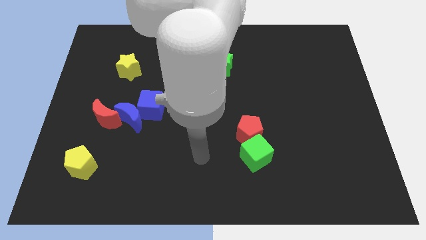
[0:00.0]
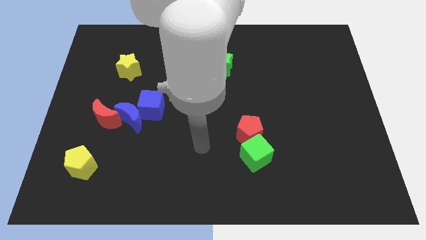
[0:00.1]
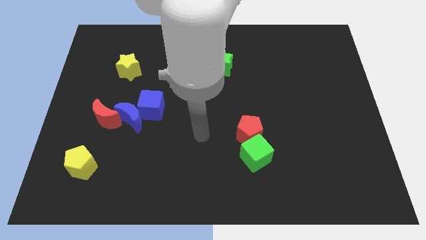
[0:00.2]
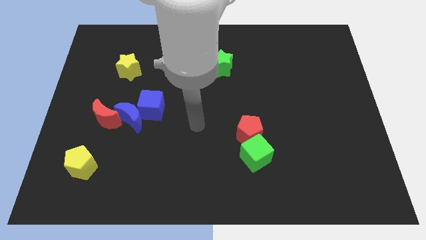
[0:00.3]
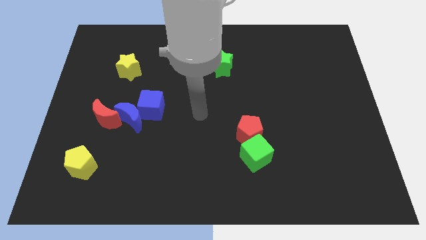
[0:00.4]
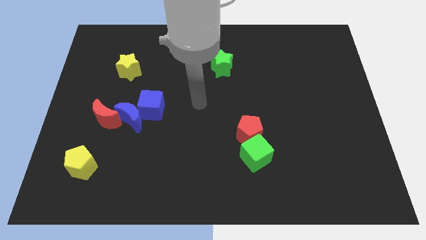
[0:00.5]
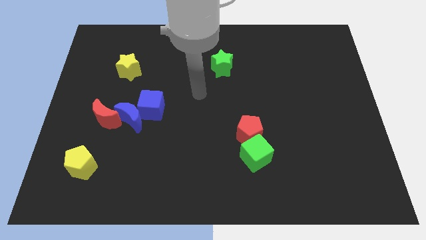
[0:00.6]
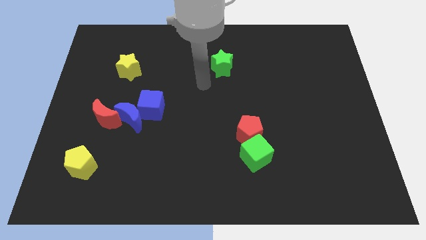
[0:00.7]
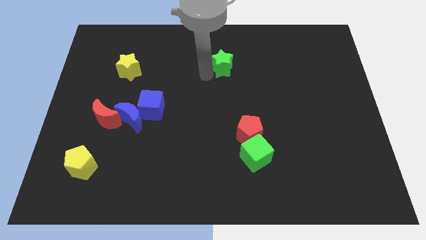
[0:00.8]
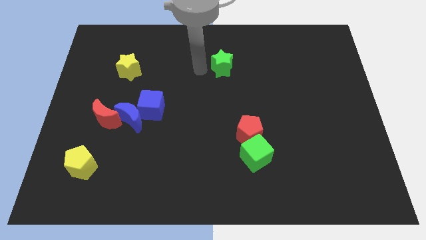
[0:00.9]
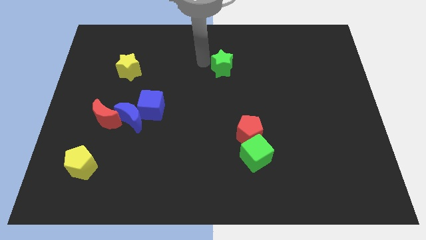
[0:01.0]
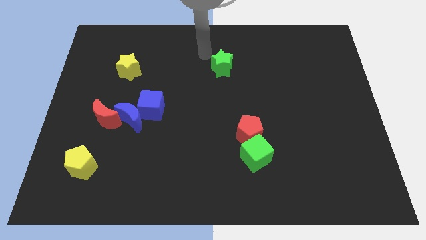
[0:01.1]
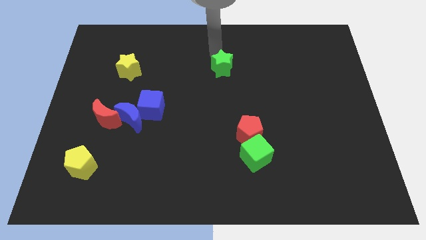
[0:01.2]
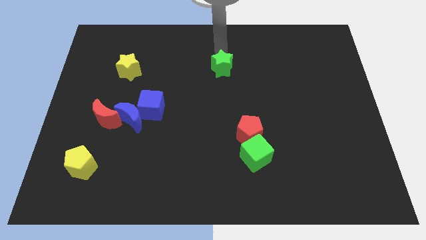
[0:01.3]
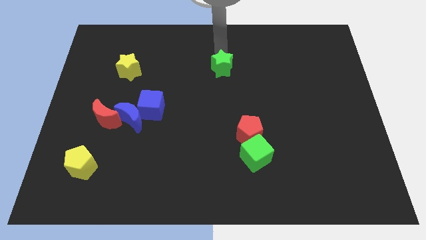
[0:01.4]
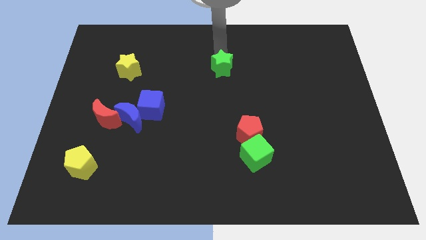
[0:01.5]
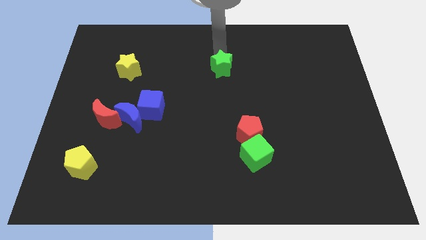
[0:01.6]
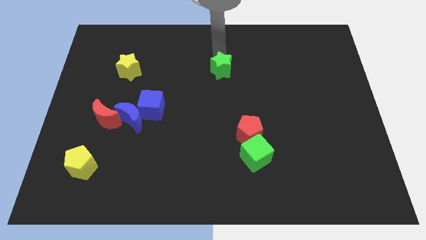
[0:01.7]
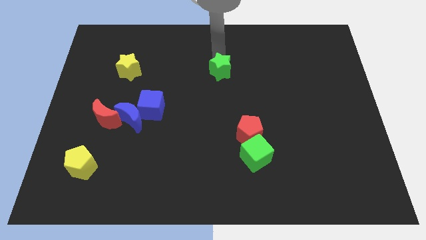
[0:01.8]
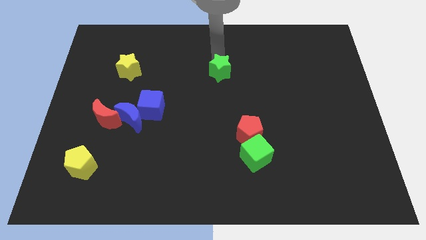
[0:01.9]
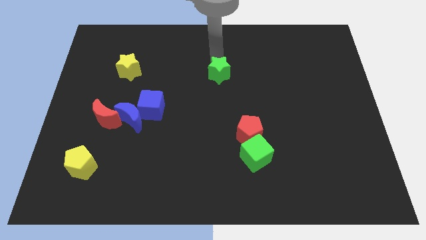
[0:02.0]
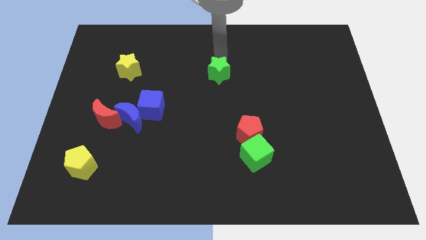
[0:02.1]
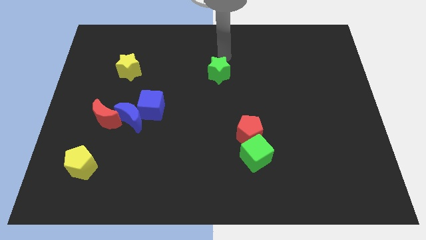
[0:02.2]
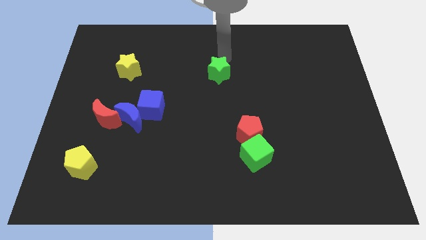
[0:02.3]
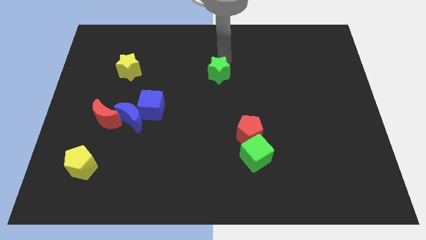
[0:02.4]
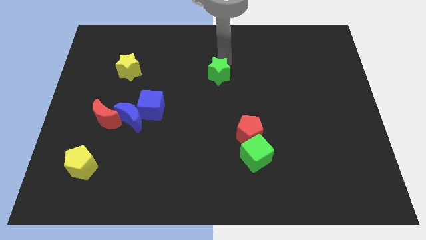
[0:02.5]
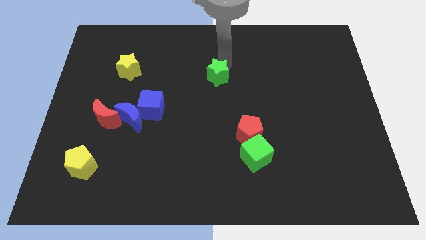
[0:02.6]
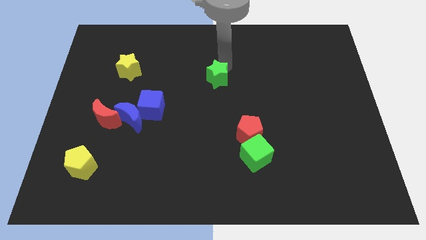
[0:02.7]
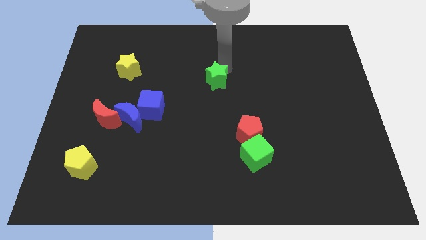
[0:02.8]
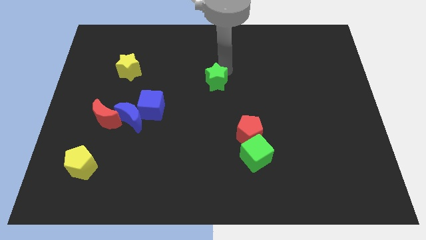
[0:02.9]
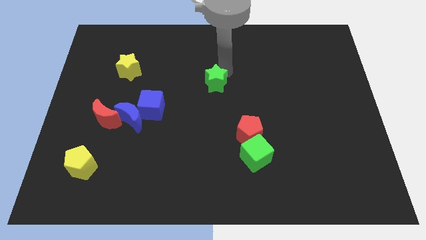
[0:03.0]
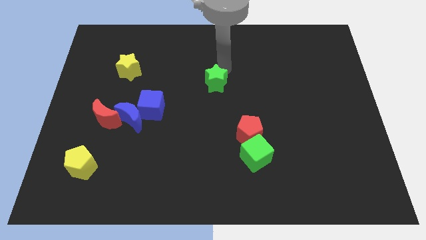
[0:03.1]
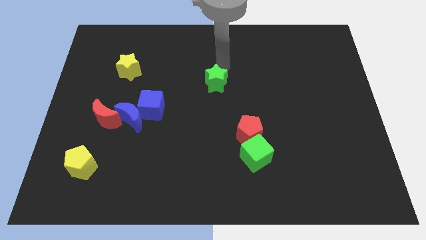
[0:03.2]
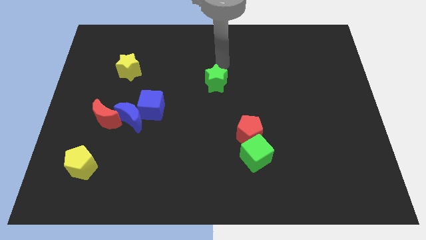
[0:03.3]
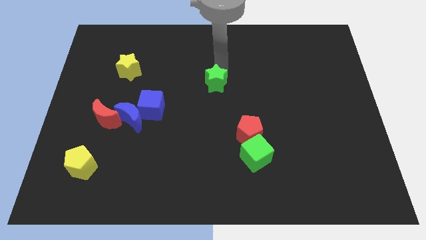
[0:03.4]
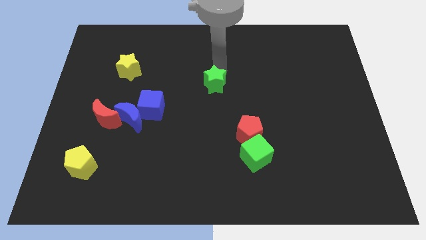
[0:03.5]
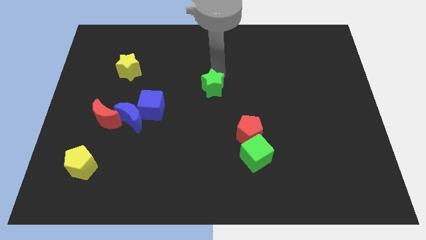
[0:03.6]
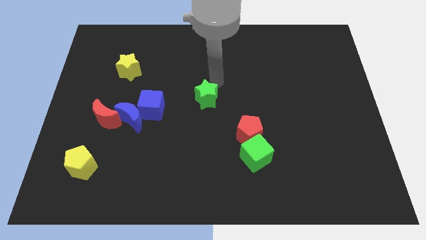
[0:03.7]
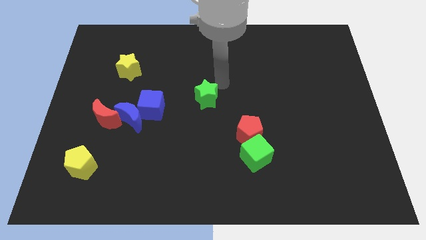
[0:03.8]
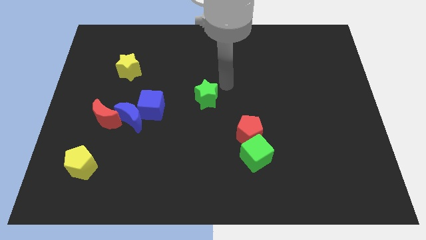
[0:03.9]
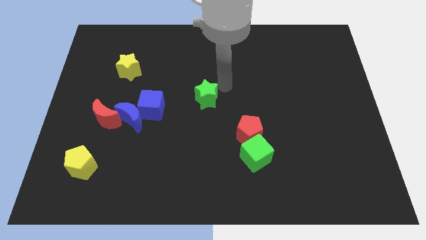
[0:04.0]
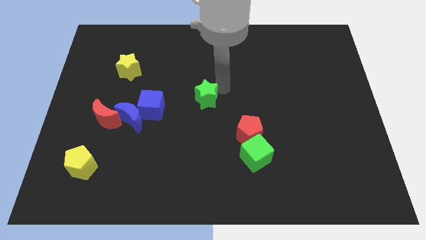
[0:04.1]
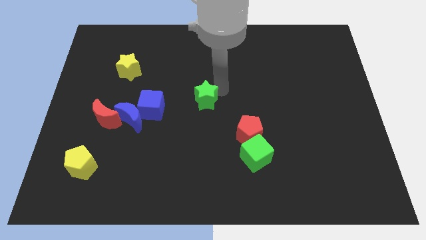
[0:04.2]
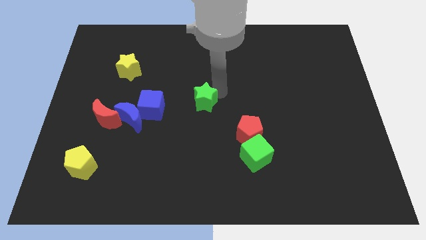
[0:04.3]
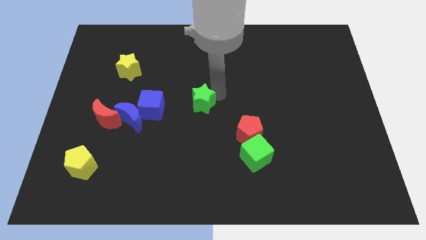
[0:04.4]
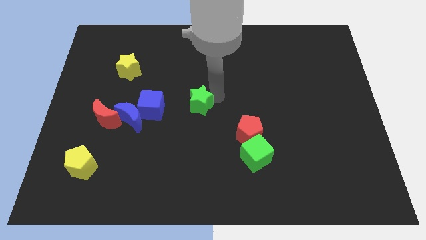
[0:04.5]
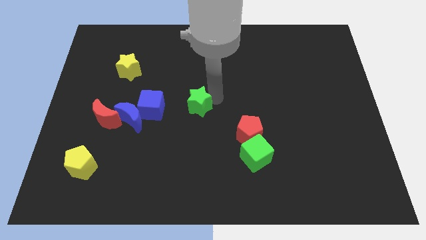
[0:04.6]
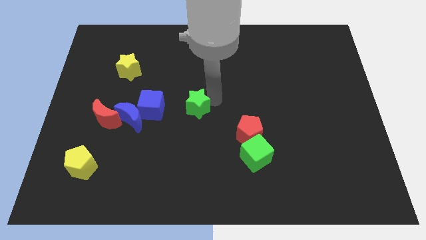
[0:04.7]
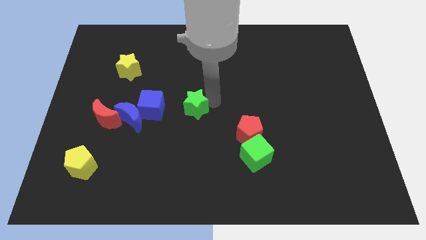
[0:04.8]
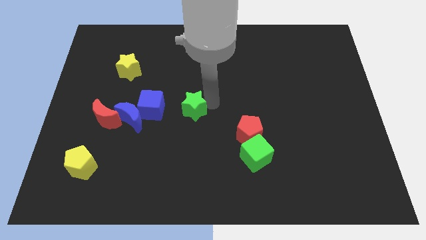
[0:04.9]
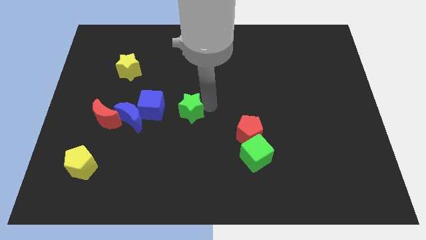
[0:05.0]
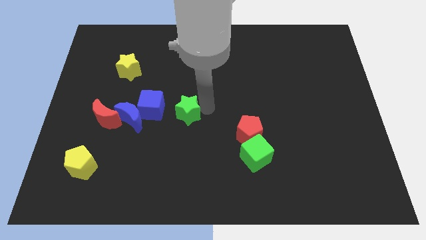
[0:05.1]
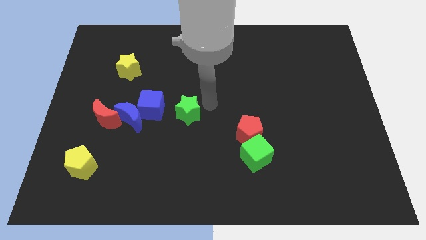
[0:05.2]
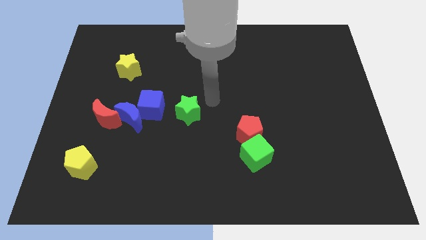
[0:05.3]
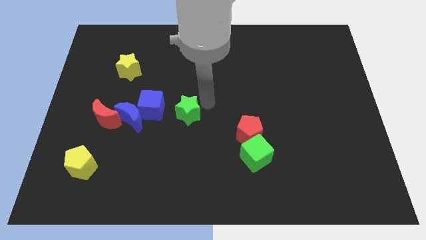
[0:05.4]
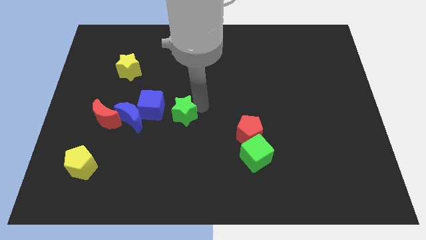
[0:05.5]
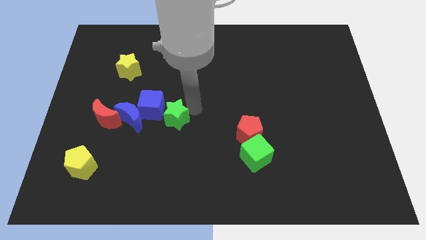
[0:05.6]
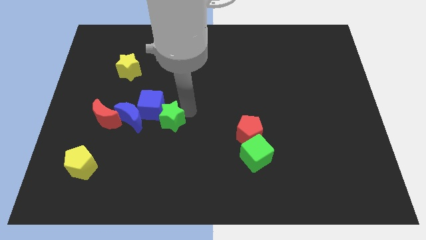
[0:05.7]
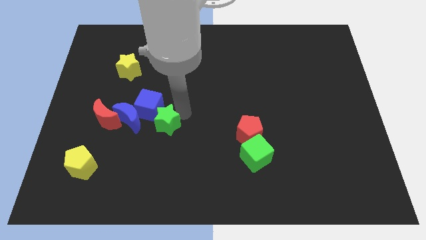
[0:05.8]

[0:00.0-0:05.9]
push the green star down and then to the left

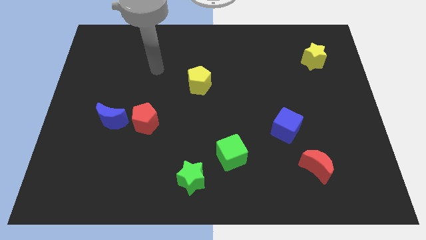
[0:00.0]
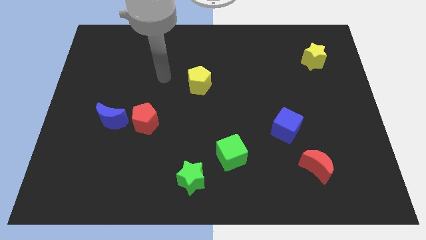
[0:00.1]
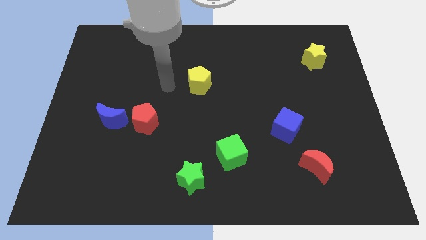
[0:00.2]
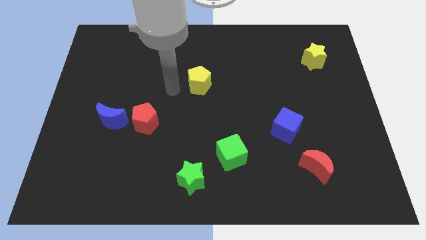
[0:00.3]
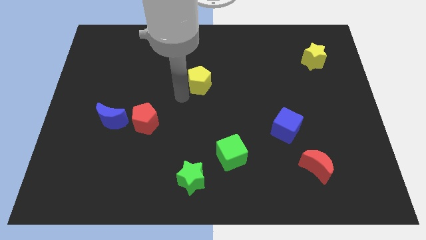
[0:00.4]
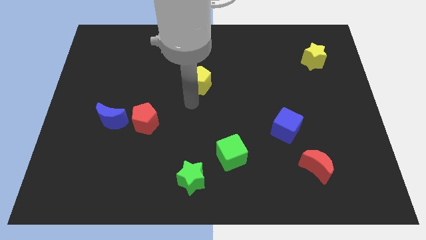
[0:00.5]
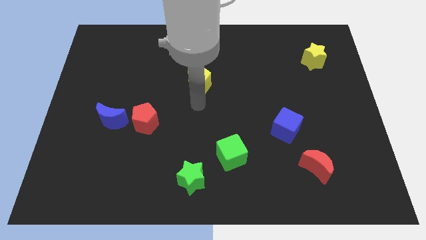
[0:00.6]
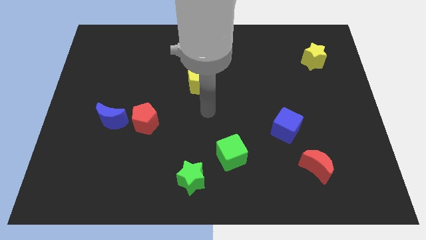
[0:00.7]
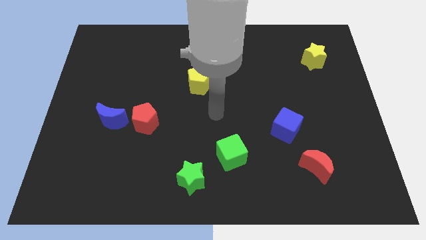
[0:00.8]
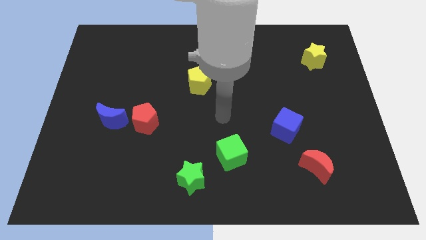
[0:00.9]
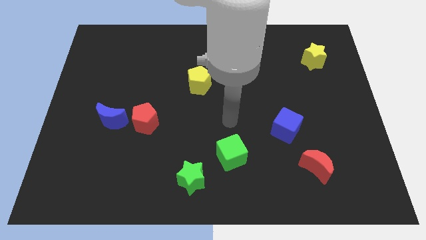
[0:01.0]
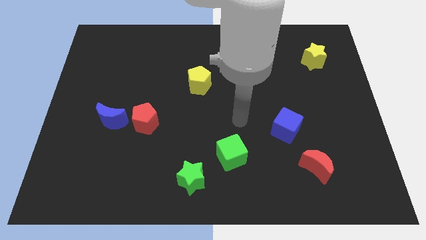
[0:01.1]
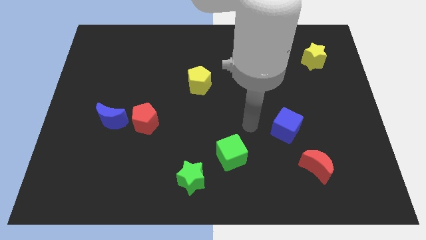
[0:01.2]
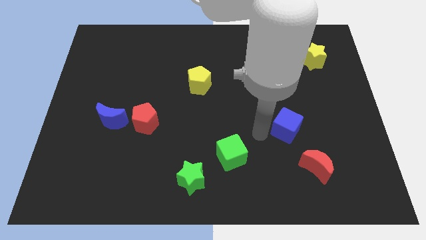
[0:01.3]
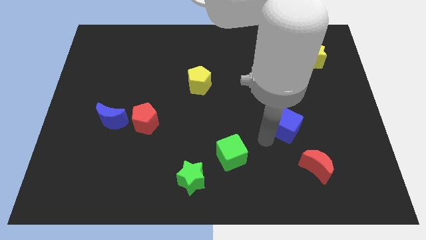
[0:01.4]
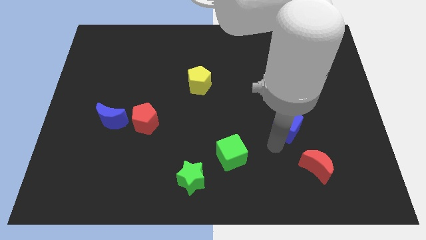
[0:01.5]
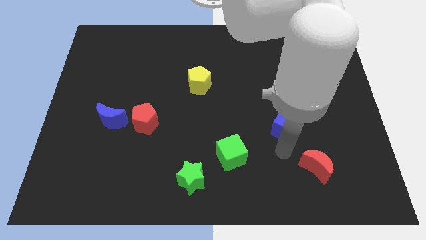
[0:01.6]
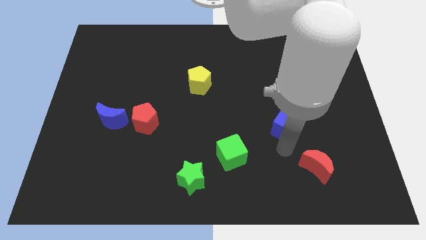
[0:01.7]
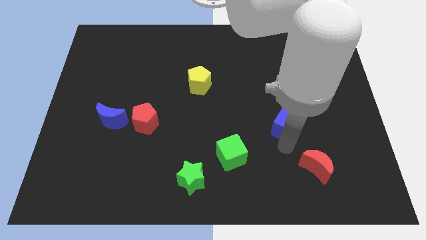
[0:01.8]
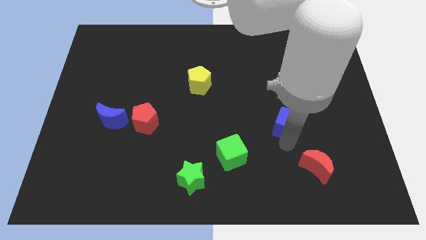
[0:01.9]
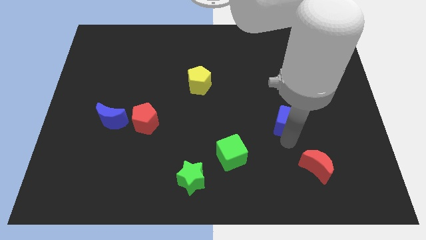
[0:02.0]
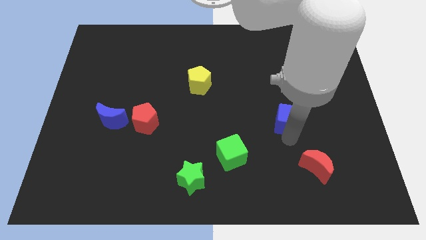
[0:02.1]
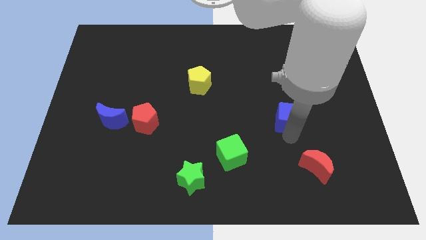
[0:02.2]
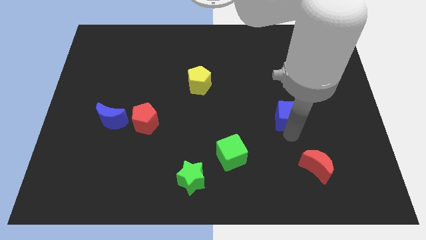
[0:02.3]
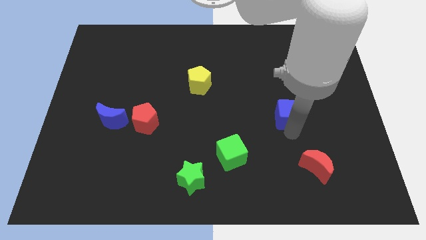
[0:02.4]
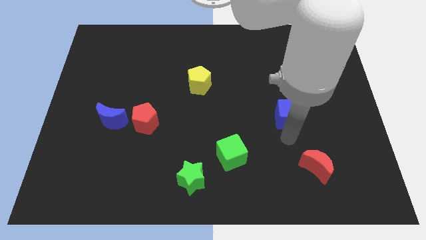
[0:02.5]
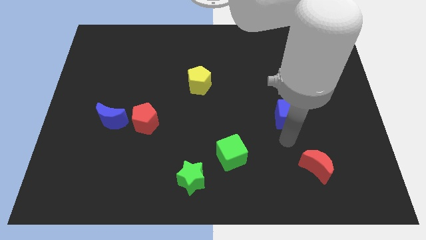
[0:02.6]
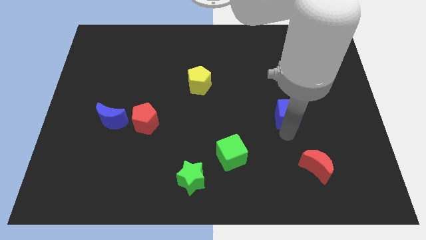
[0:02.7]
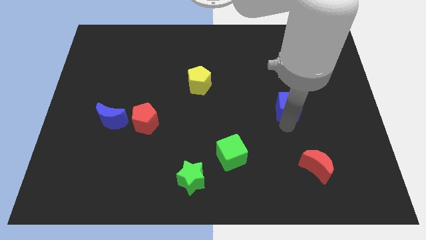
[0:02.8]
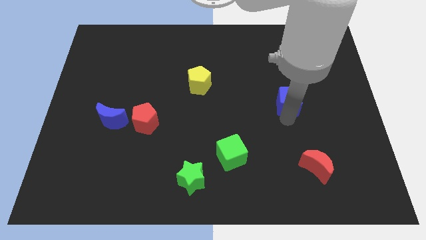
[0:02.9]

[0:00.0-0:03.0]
move the blue cube a little bit upwards
